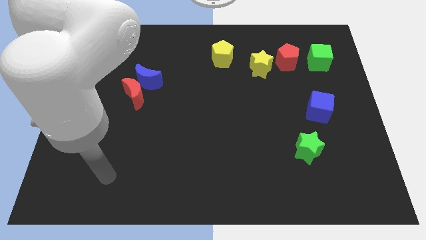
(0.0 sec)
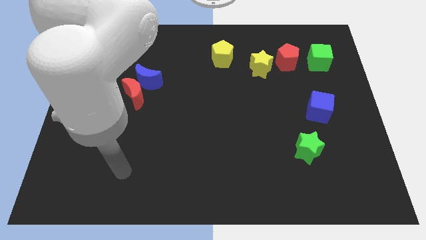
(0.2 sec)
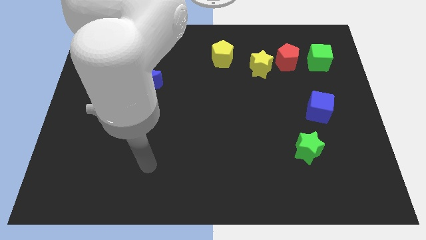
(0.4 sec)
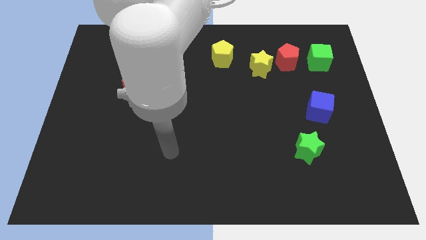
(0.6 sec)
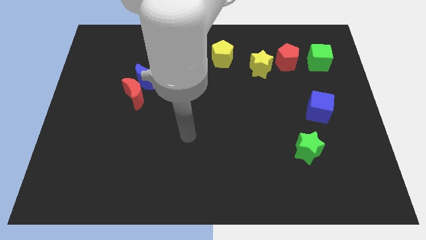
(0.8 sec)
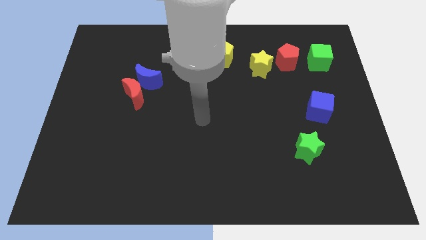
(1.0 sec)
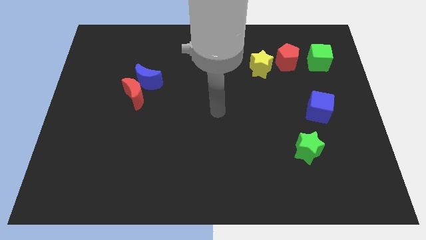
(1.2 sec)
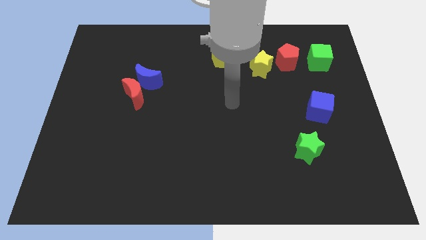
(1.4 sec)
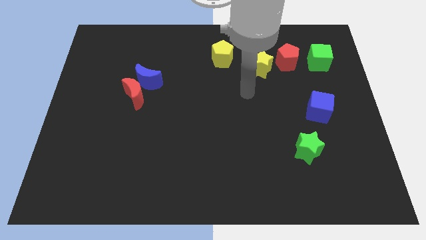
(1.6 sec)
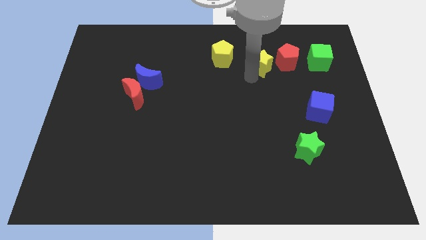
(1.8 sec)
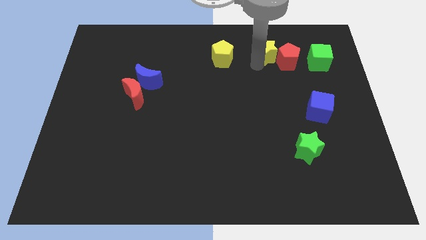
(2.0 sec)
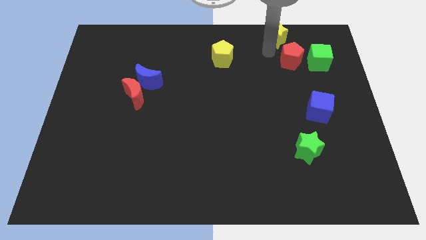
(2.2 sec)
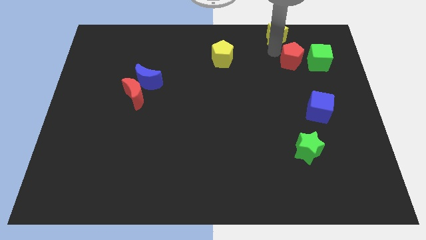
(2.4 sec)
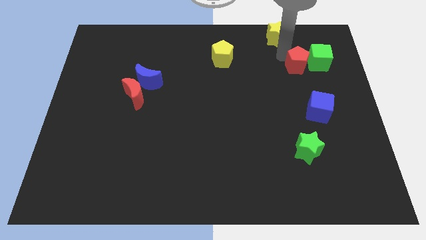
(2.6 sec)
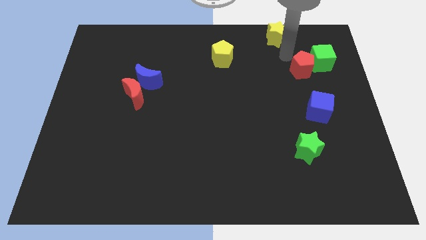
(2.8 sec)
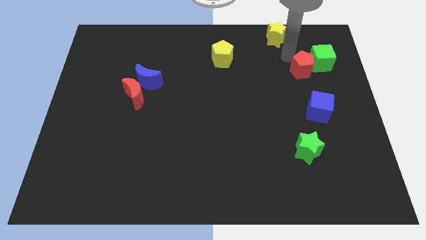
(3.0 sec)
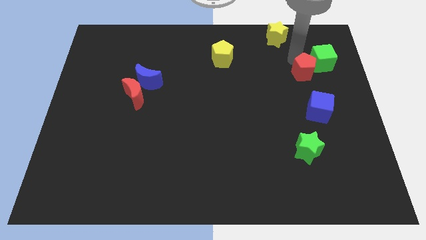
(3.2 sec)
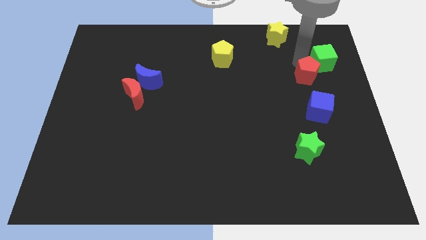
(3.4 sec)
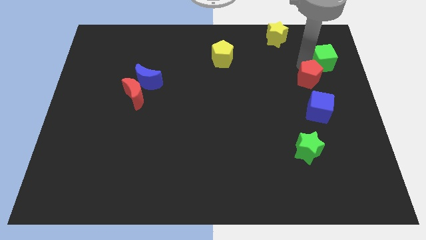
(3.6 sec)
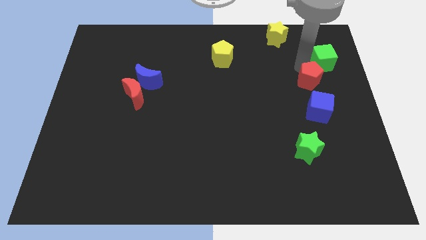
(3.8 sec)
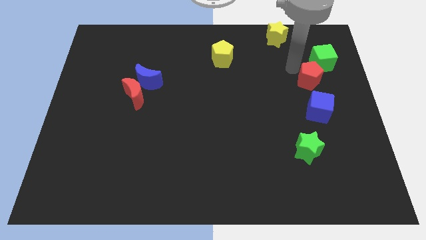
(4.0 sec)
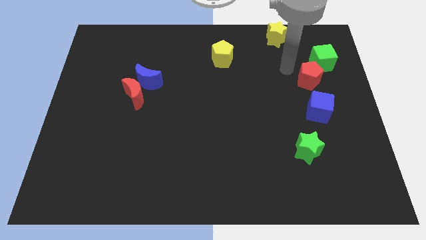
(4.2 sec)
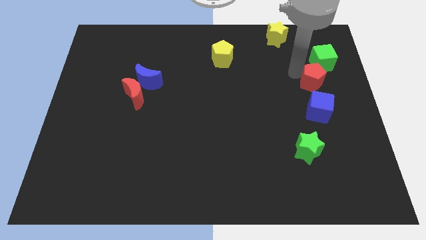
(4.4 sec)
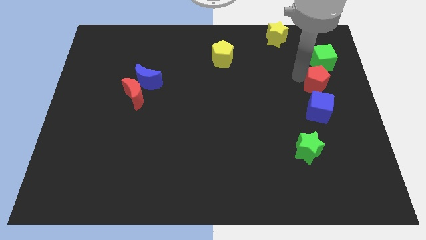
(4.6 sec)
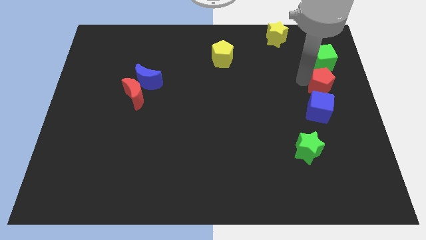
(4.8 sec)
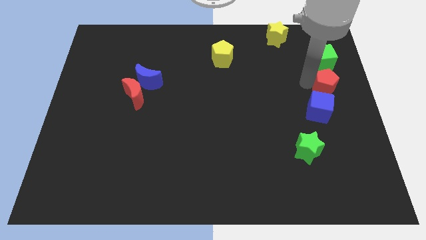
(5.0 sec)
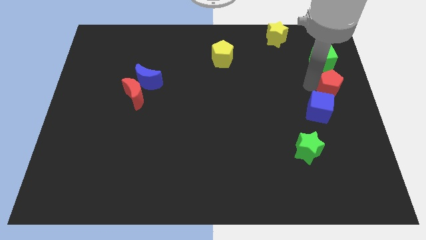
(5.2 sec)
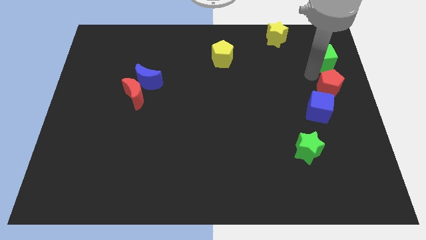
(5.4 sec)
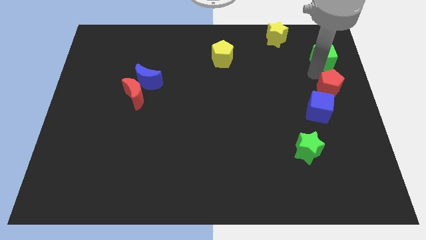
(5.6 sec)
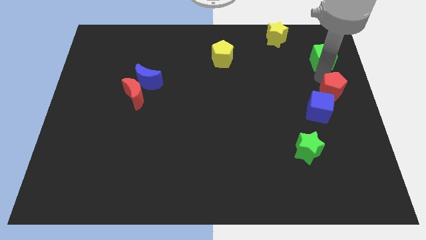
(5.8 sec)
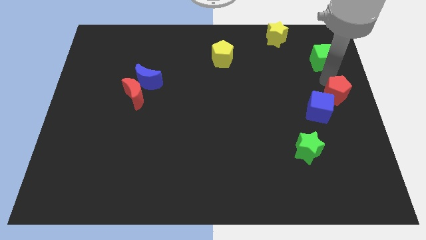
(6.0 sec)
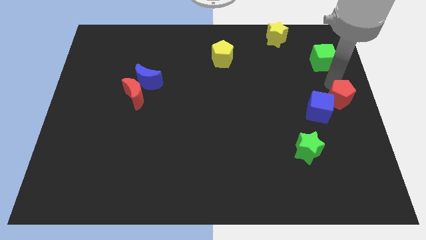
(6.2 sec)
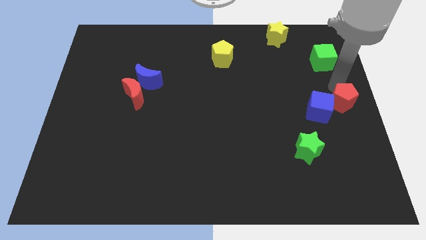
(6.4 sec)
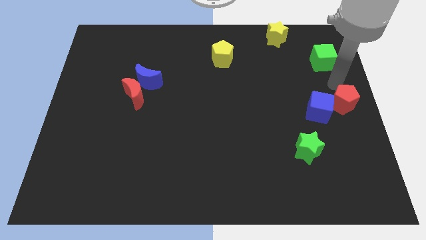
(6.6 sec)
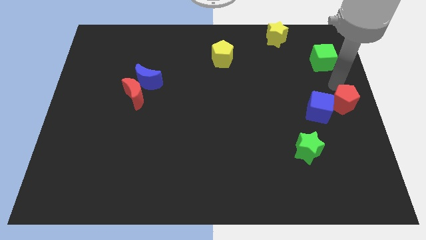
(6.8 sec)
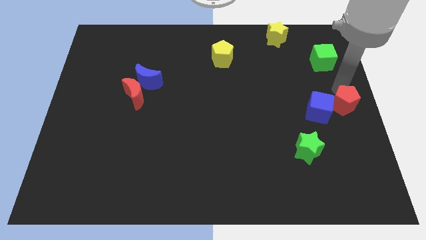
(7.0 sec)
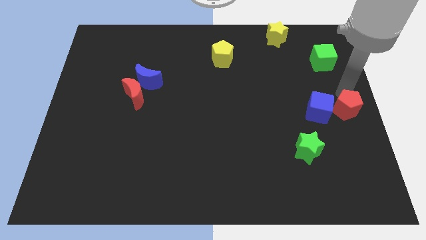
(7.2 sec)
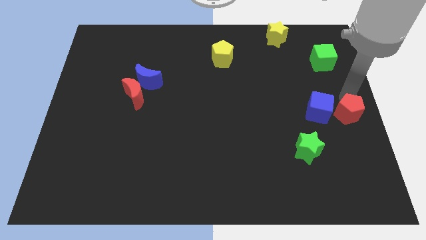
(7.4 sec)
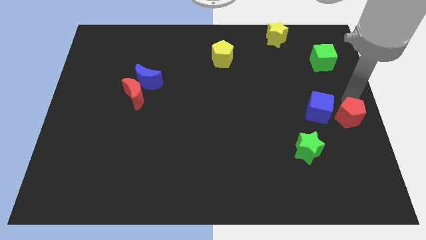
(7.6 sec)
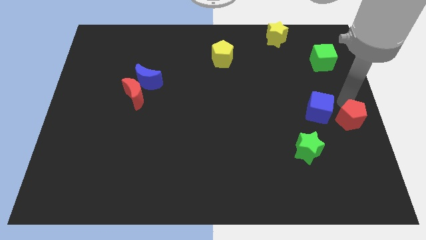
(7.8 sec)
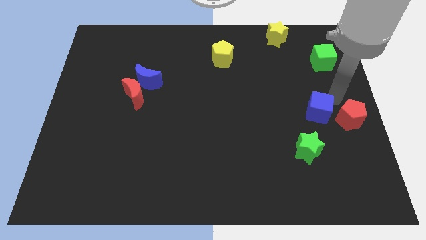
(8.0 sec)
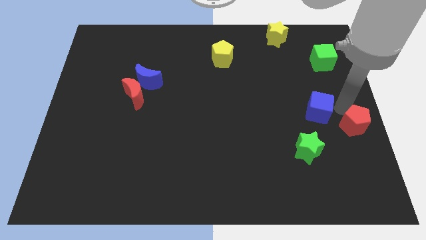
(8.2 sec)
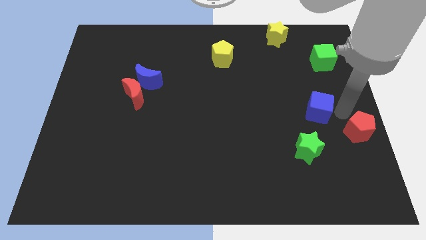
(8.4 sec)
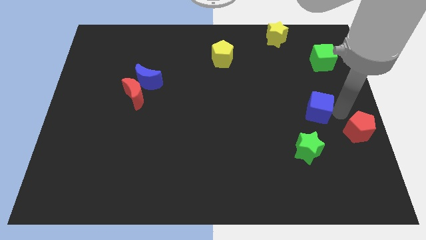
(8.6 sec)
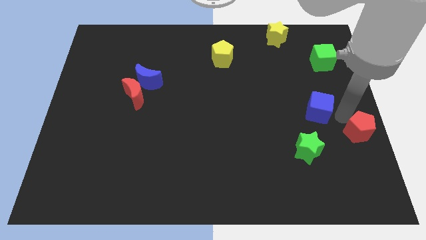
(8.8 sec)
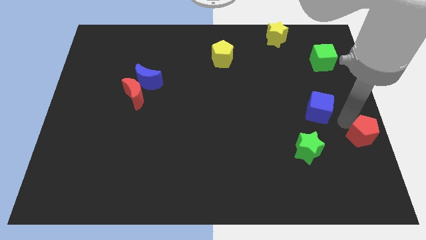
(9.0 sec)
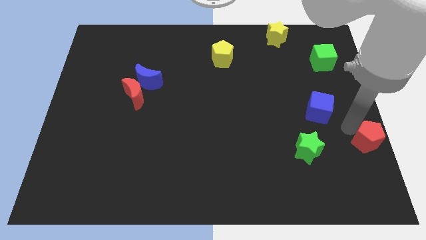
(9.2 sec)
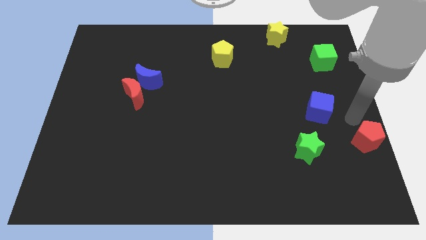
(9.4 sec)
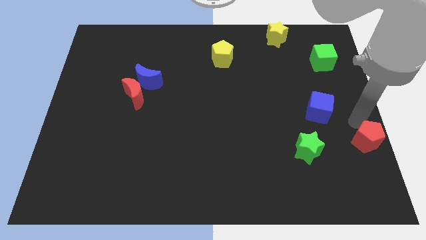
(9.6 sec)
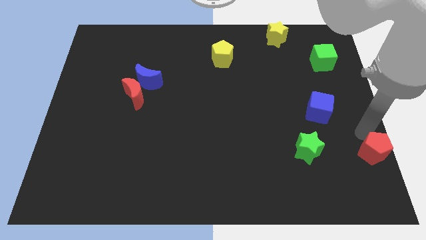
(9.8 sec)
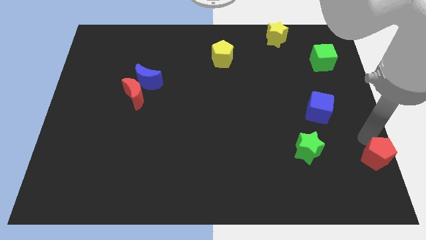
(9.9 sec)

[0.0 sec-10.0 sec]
put the red pentagon to the bottom right corner
